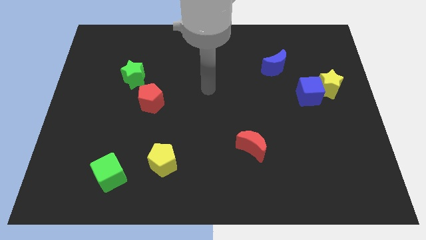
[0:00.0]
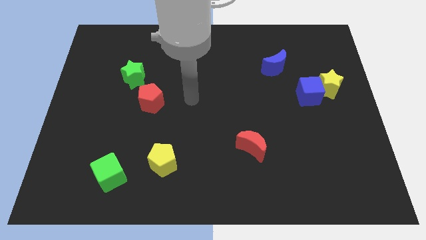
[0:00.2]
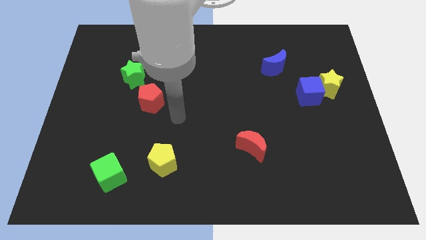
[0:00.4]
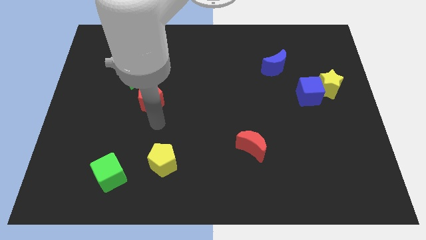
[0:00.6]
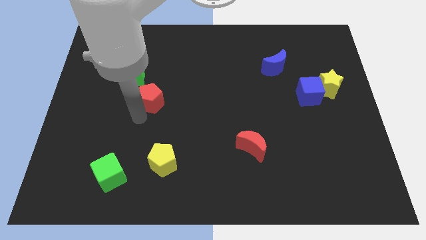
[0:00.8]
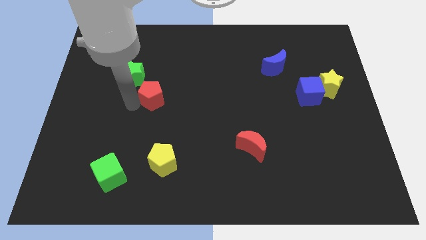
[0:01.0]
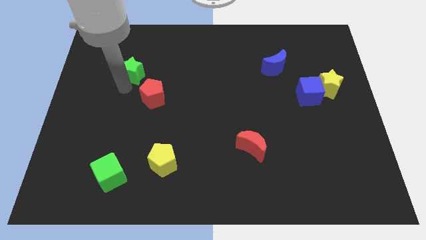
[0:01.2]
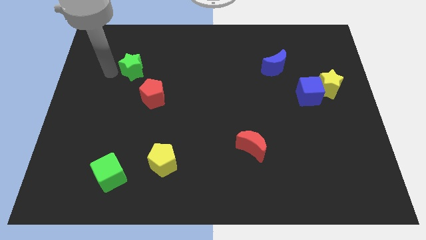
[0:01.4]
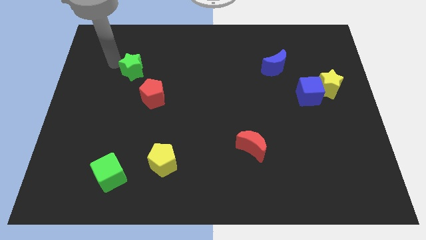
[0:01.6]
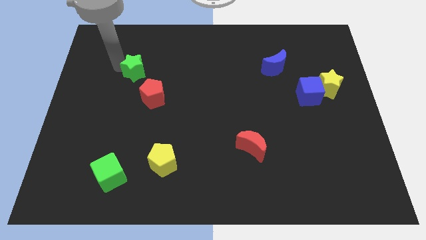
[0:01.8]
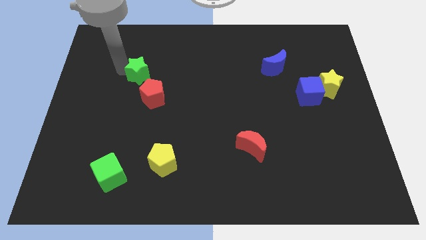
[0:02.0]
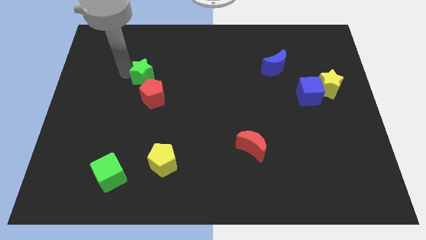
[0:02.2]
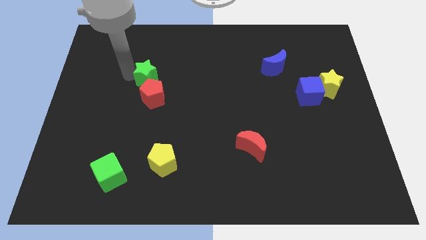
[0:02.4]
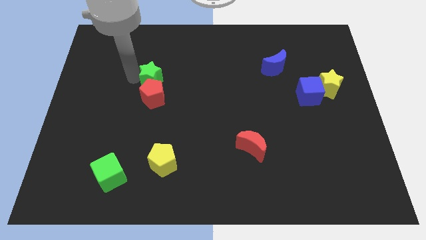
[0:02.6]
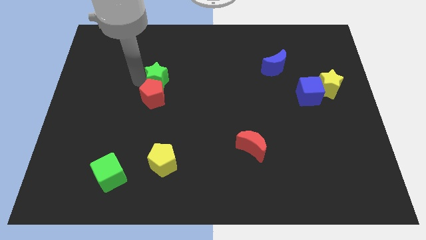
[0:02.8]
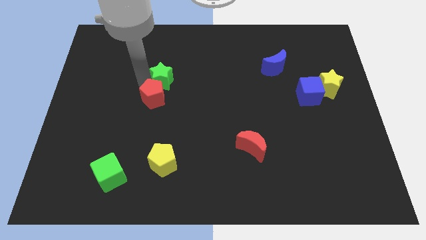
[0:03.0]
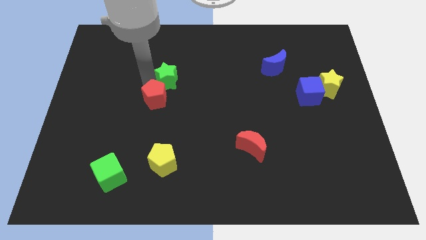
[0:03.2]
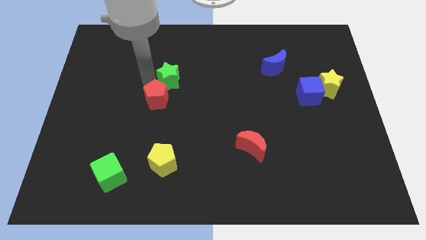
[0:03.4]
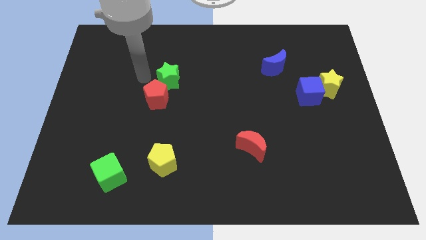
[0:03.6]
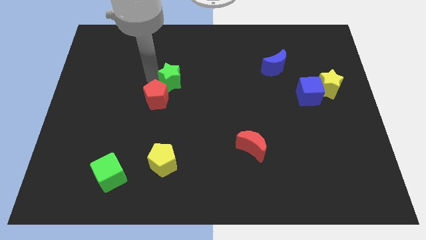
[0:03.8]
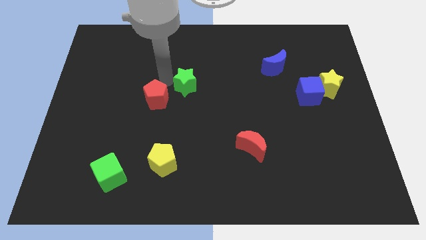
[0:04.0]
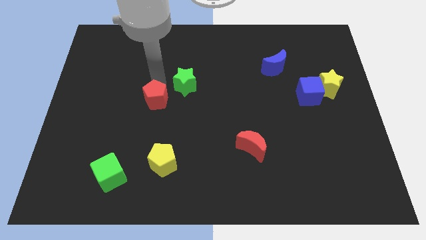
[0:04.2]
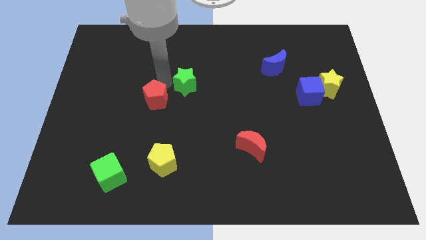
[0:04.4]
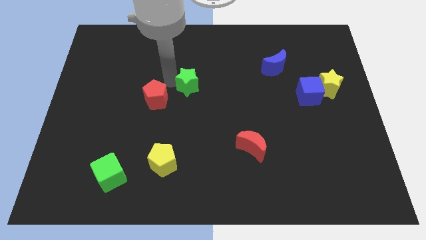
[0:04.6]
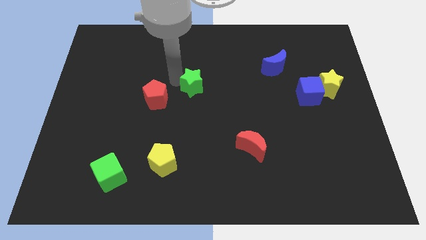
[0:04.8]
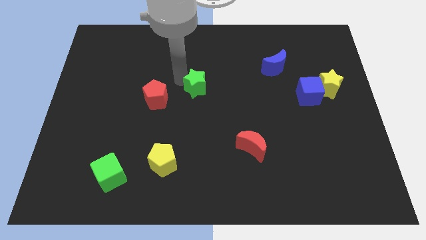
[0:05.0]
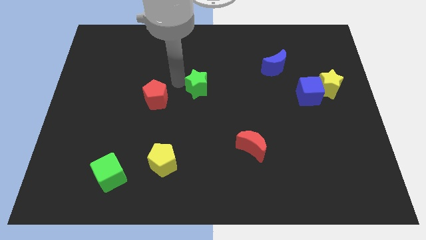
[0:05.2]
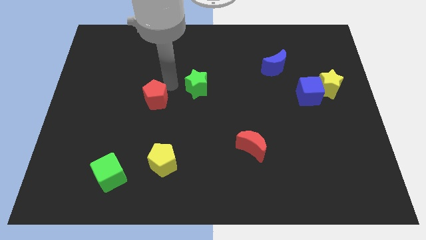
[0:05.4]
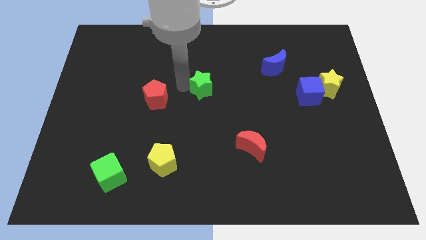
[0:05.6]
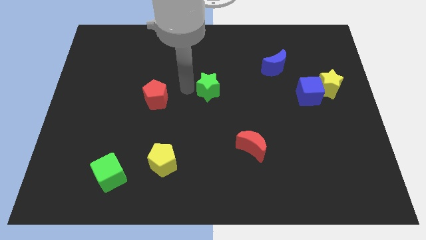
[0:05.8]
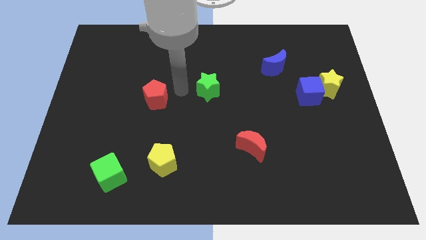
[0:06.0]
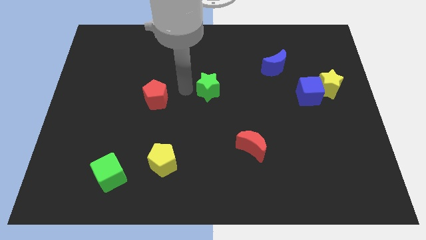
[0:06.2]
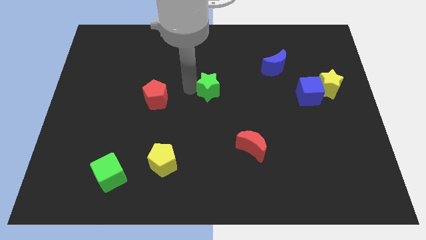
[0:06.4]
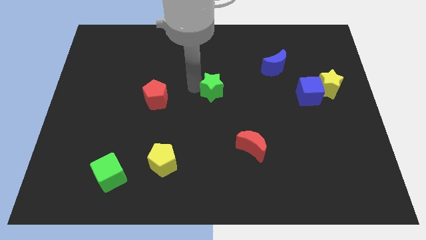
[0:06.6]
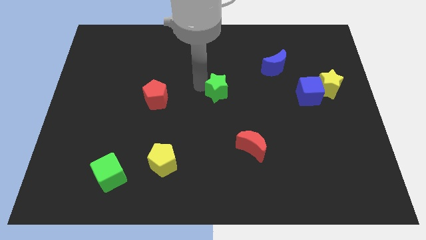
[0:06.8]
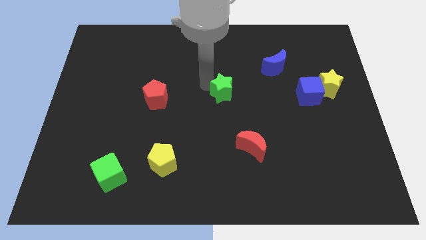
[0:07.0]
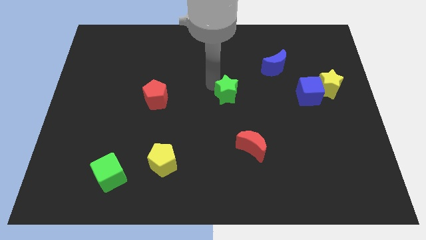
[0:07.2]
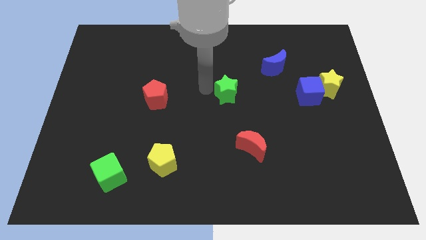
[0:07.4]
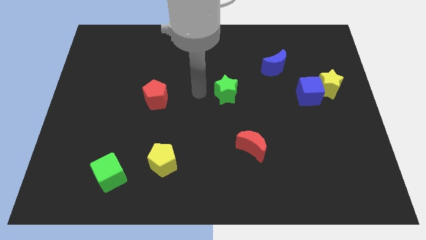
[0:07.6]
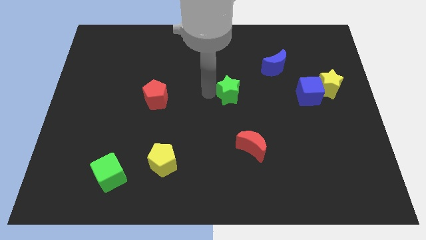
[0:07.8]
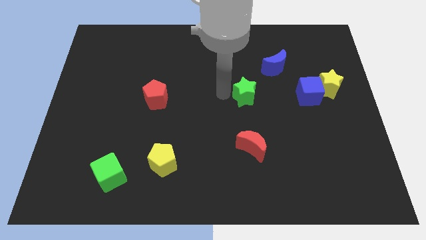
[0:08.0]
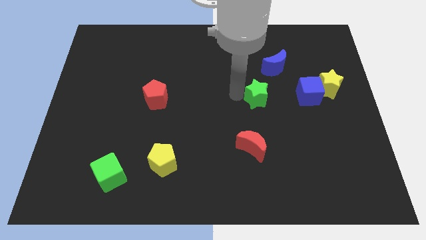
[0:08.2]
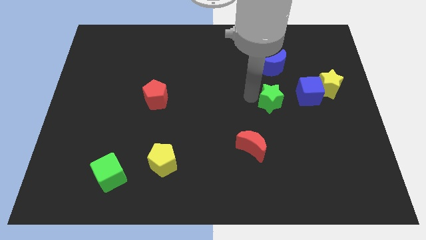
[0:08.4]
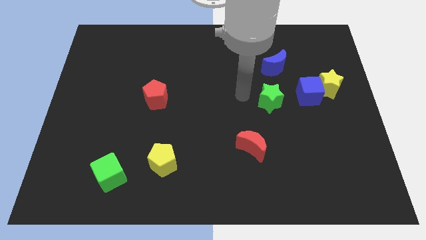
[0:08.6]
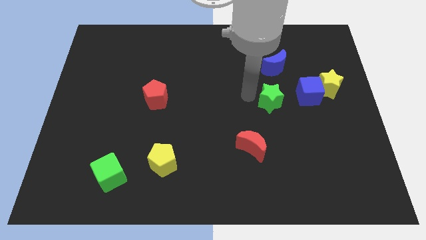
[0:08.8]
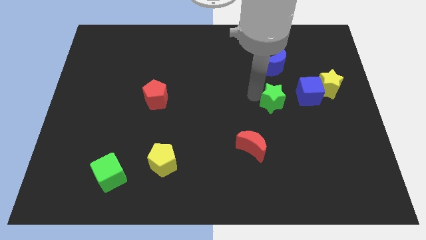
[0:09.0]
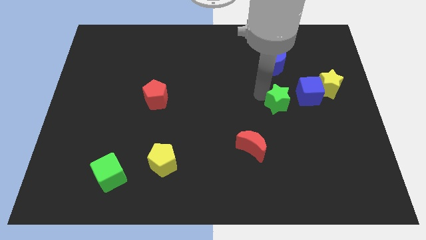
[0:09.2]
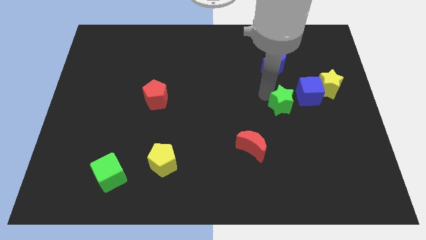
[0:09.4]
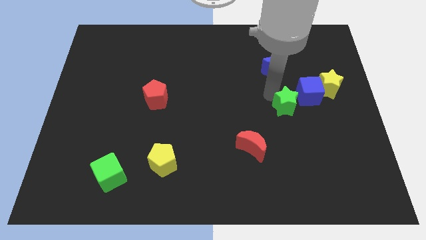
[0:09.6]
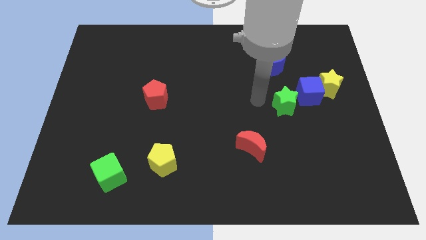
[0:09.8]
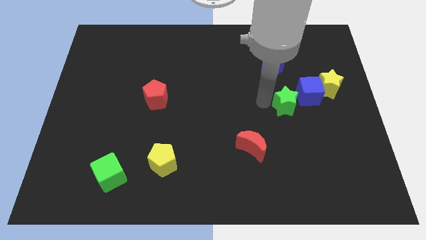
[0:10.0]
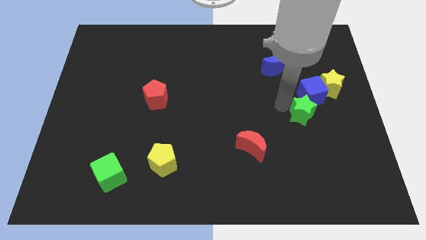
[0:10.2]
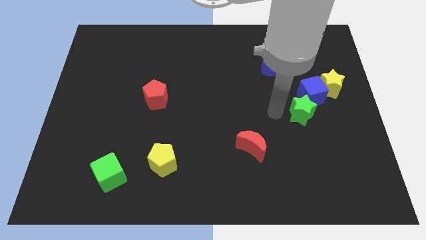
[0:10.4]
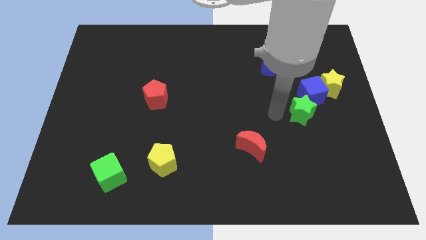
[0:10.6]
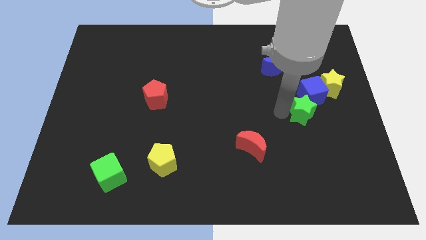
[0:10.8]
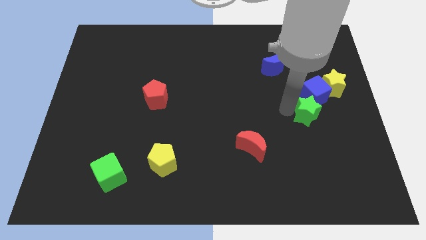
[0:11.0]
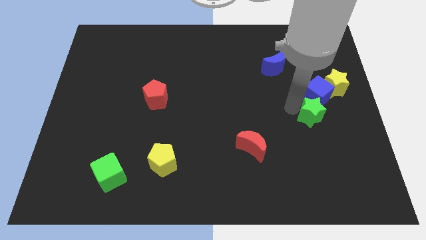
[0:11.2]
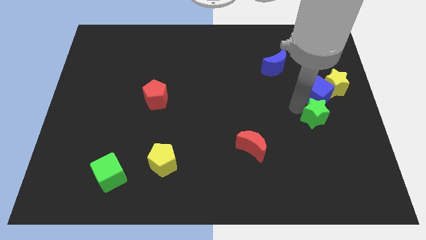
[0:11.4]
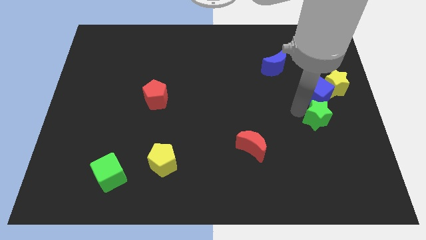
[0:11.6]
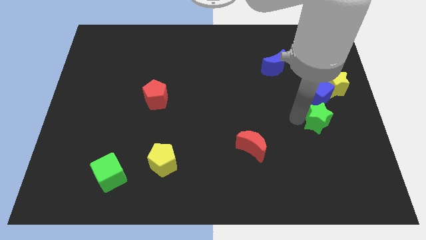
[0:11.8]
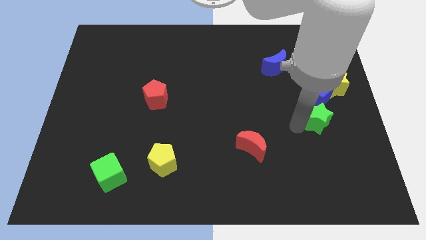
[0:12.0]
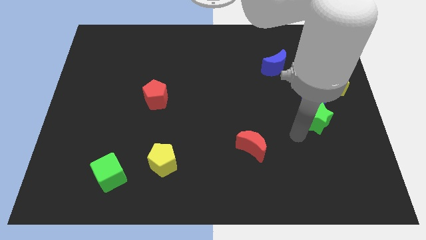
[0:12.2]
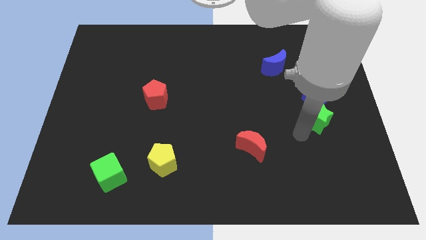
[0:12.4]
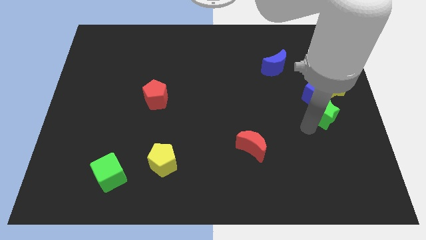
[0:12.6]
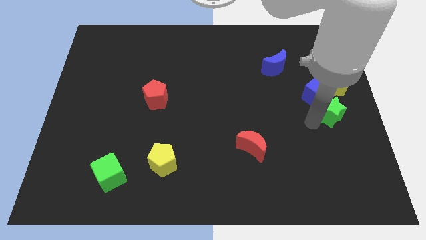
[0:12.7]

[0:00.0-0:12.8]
put the green star to the right side of the board

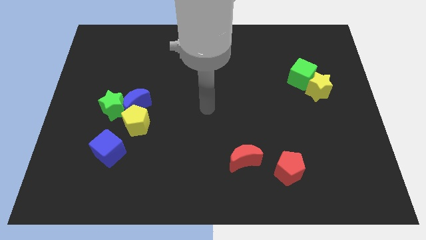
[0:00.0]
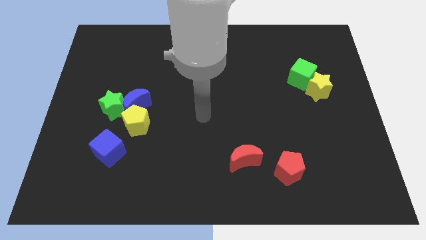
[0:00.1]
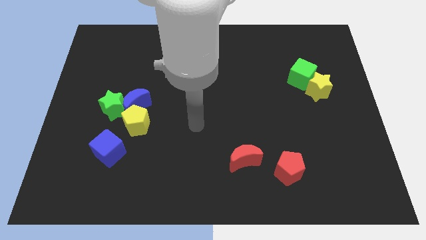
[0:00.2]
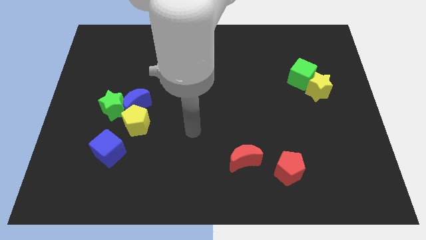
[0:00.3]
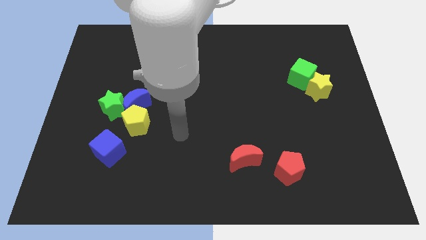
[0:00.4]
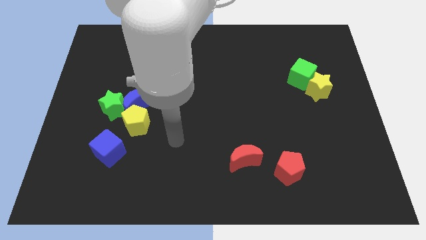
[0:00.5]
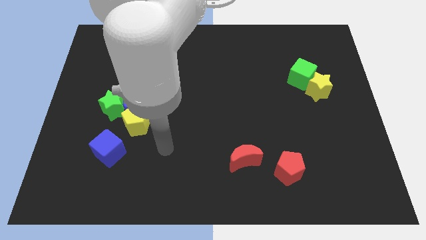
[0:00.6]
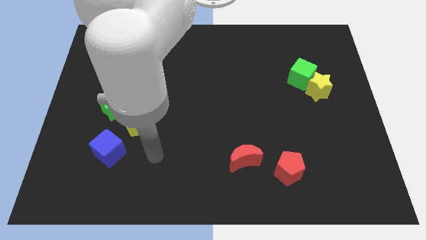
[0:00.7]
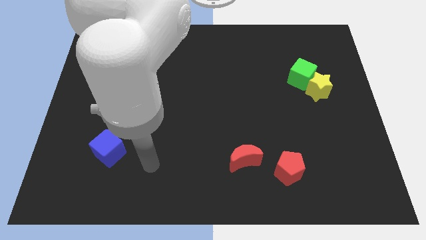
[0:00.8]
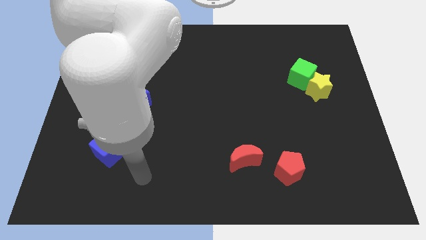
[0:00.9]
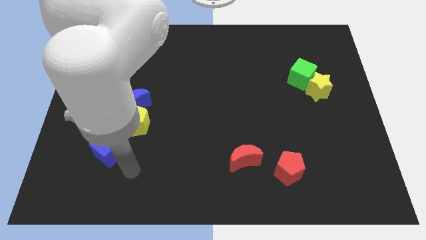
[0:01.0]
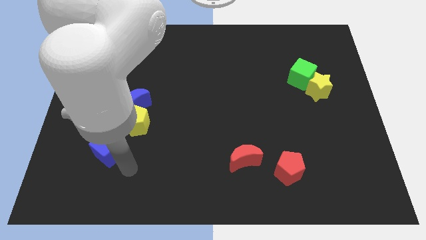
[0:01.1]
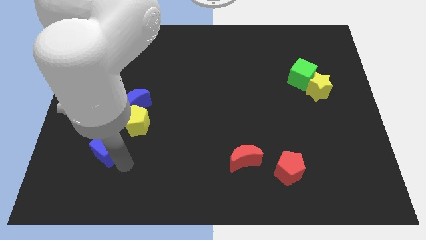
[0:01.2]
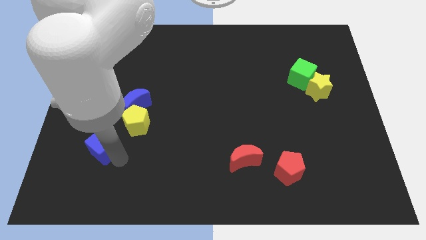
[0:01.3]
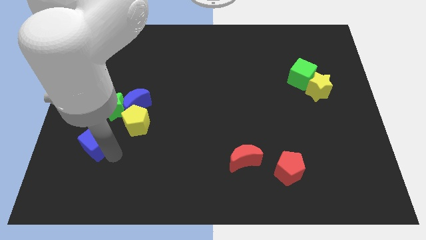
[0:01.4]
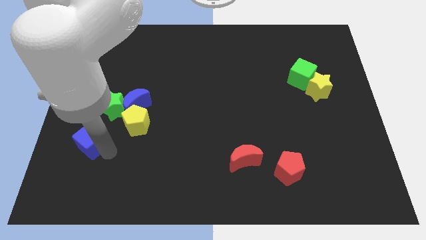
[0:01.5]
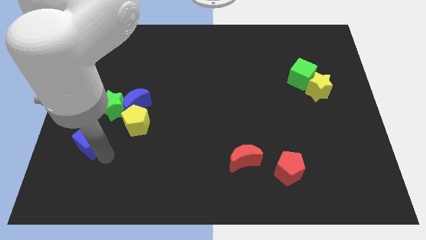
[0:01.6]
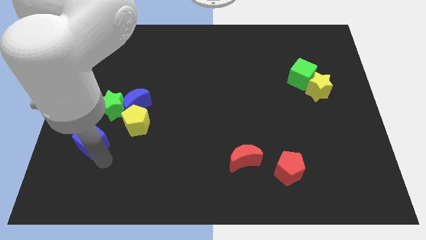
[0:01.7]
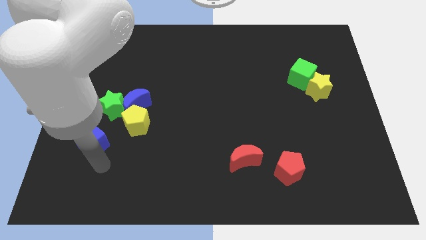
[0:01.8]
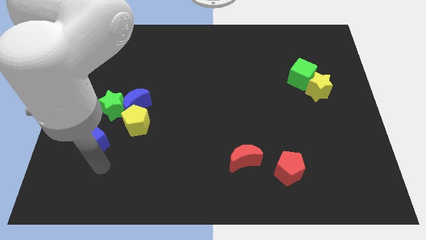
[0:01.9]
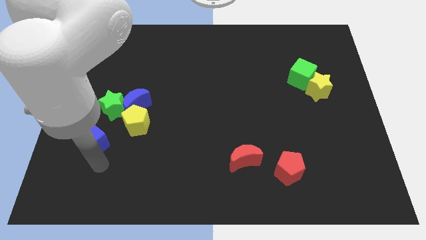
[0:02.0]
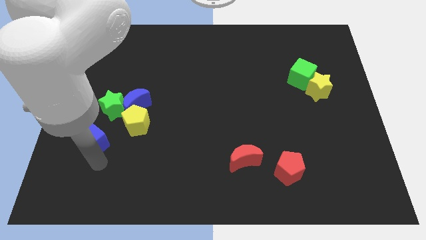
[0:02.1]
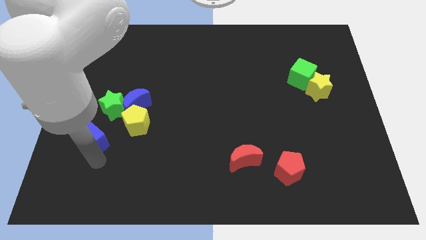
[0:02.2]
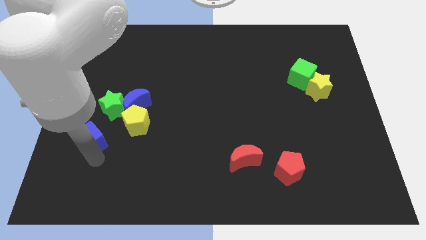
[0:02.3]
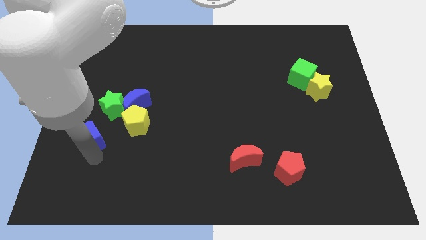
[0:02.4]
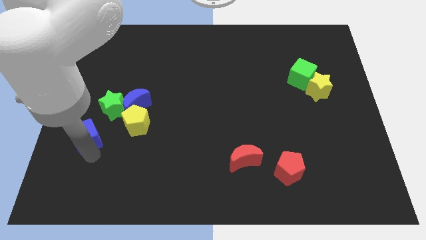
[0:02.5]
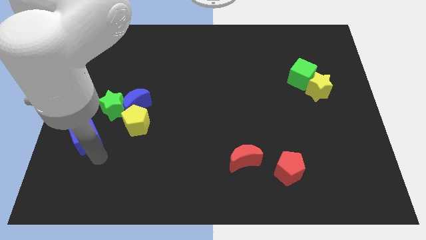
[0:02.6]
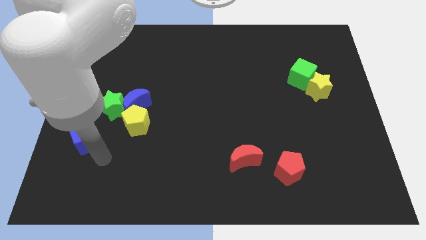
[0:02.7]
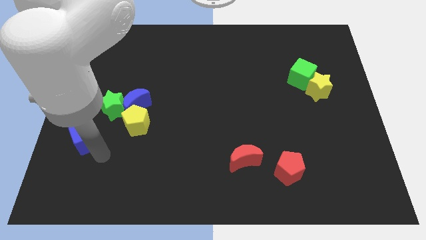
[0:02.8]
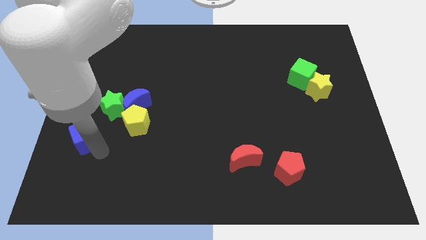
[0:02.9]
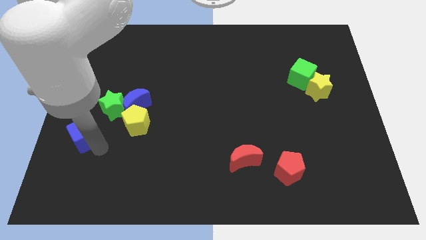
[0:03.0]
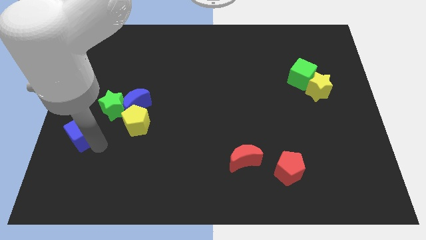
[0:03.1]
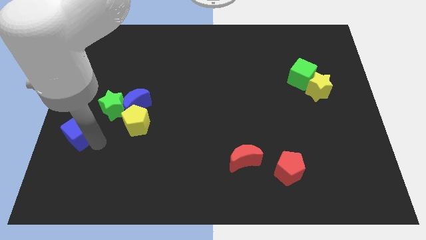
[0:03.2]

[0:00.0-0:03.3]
push the blue cube to the left side
